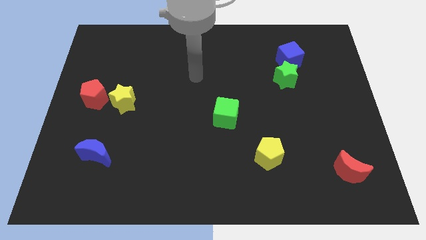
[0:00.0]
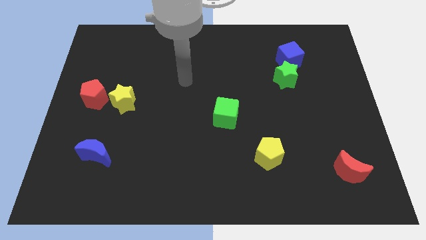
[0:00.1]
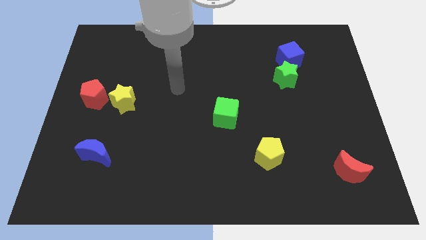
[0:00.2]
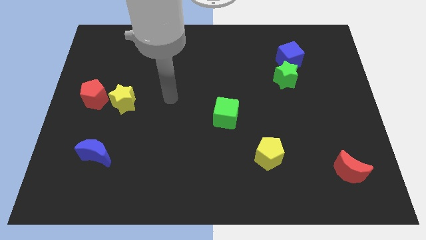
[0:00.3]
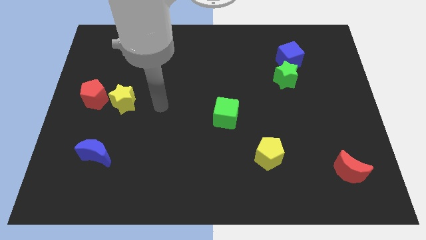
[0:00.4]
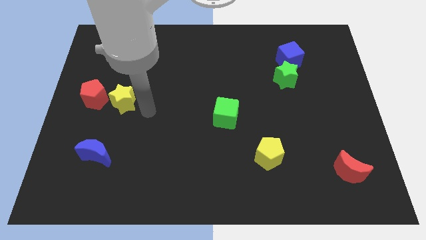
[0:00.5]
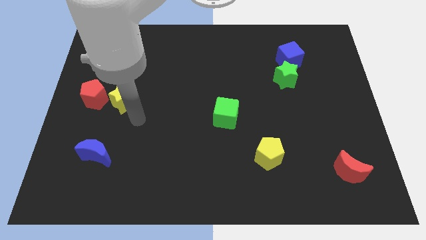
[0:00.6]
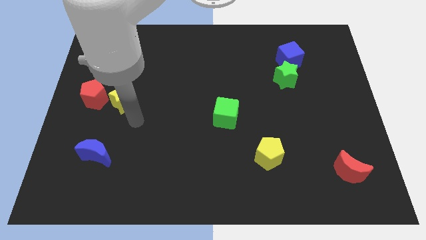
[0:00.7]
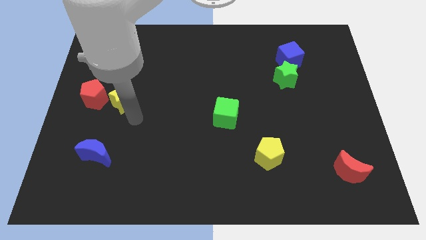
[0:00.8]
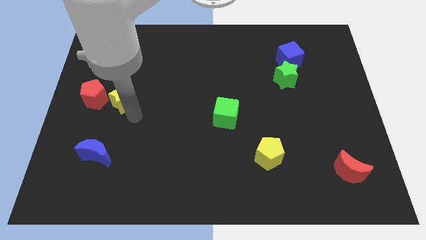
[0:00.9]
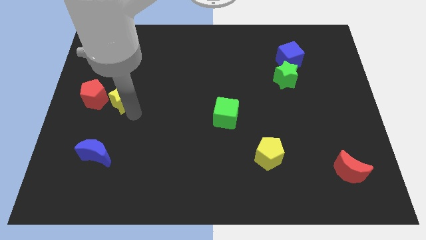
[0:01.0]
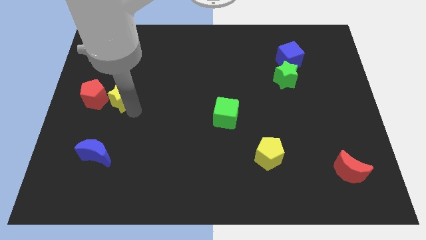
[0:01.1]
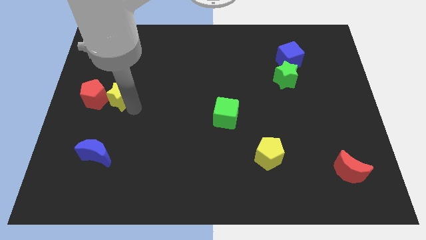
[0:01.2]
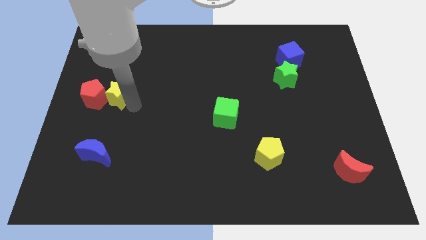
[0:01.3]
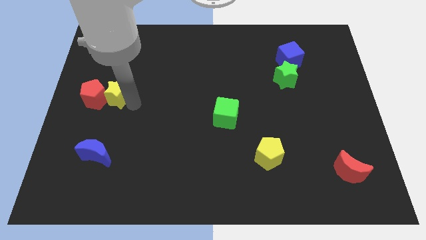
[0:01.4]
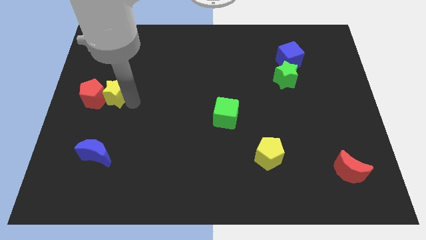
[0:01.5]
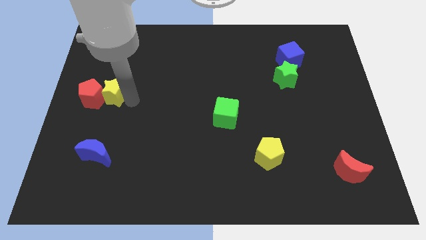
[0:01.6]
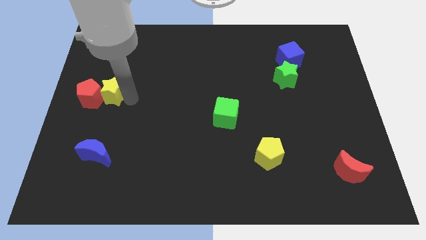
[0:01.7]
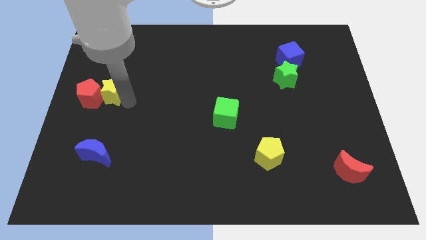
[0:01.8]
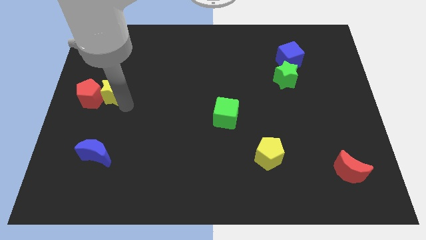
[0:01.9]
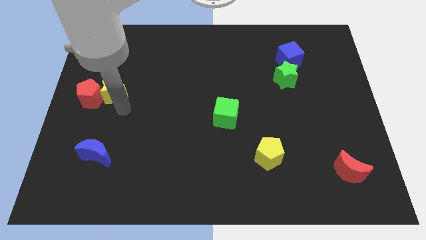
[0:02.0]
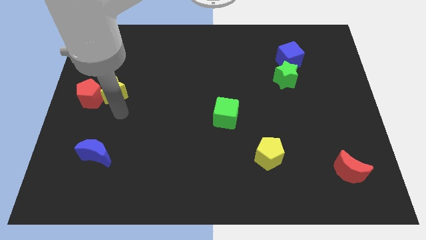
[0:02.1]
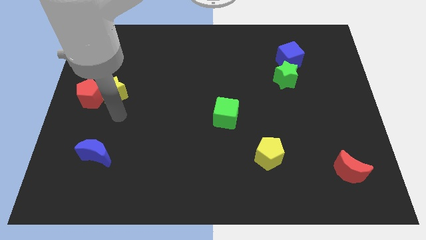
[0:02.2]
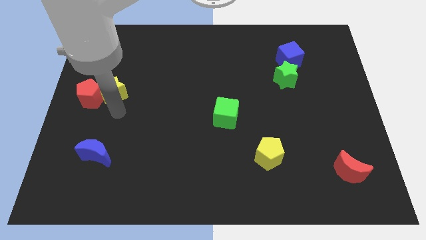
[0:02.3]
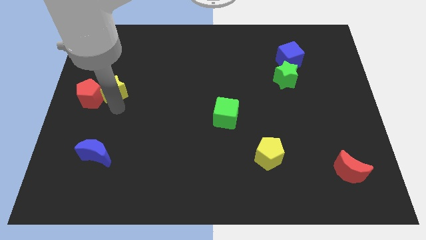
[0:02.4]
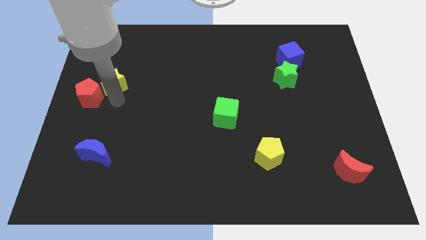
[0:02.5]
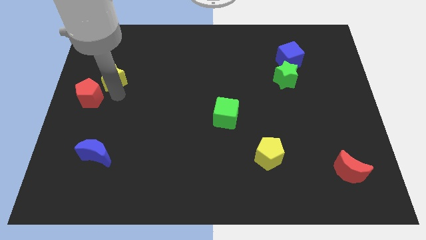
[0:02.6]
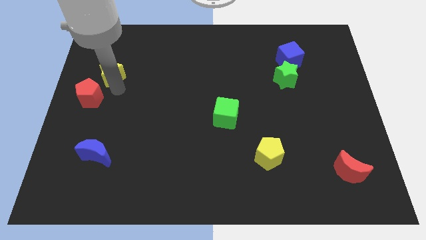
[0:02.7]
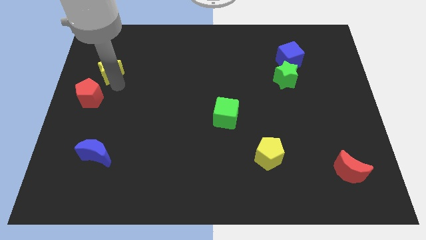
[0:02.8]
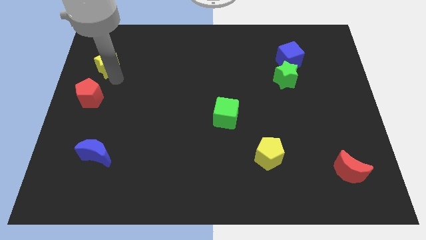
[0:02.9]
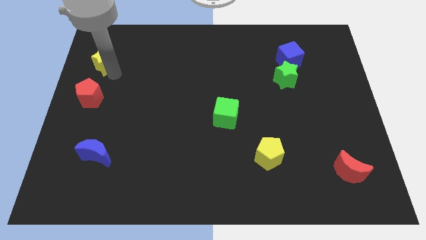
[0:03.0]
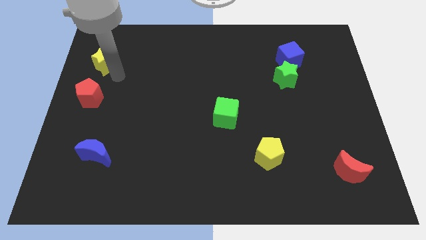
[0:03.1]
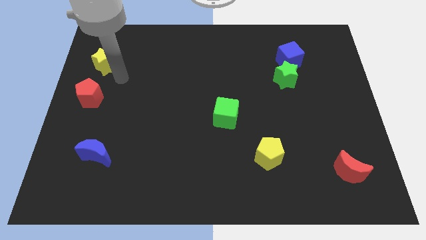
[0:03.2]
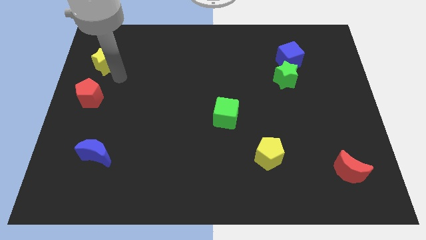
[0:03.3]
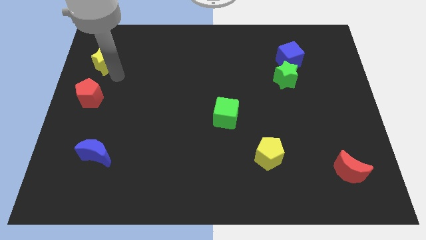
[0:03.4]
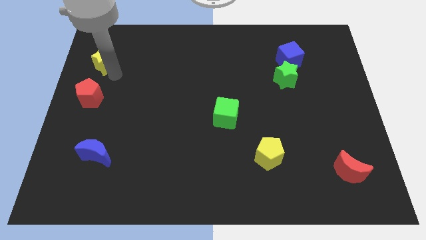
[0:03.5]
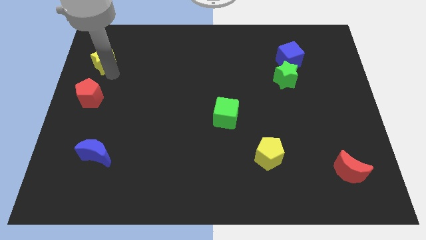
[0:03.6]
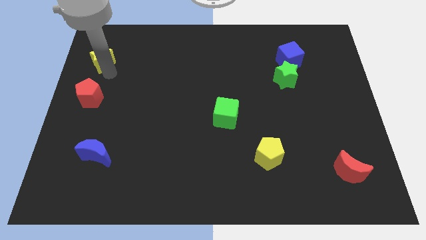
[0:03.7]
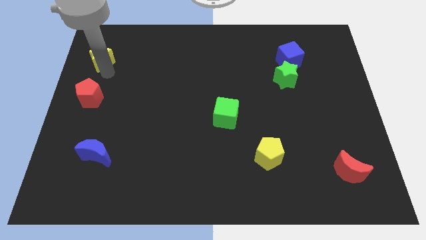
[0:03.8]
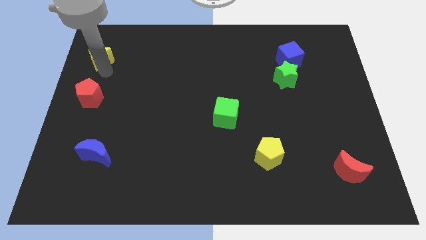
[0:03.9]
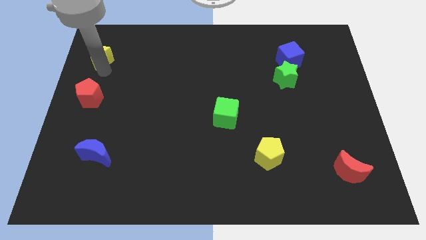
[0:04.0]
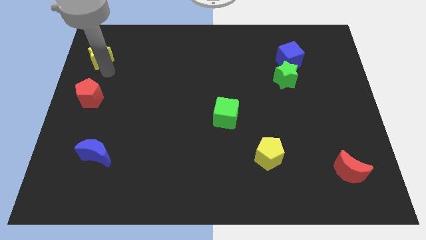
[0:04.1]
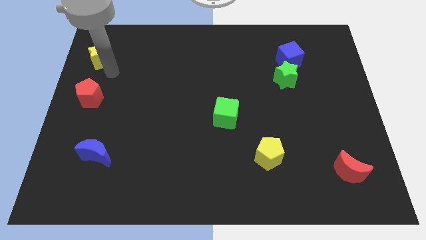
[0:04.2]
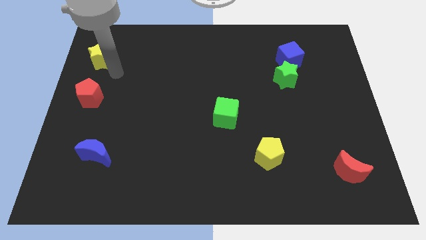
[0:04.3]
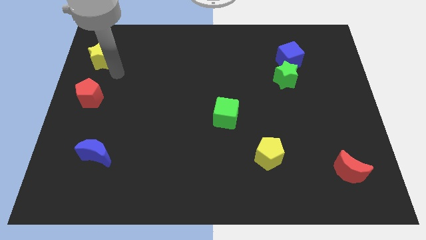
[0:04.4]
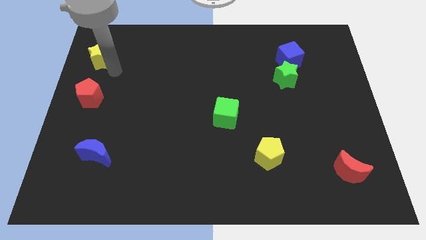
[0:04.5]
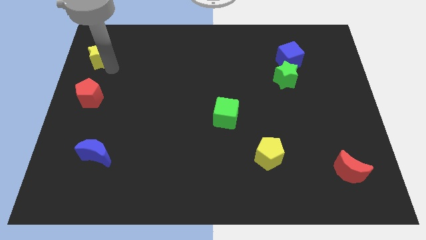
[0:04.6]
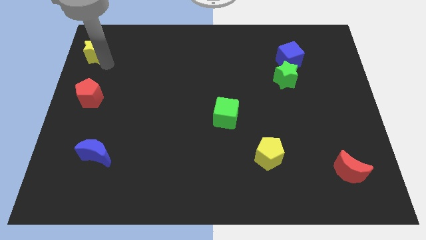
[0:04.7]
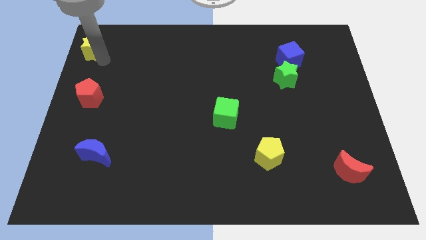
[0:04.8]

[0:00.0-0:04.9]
slide the yellow star to the top left corner
